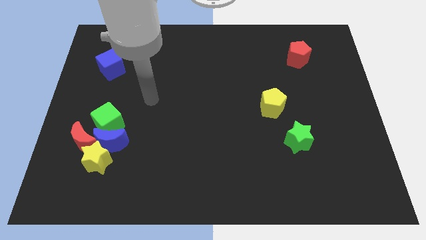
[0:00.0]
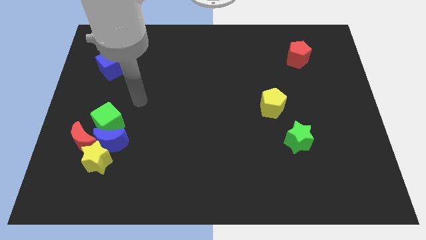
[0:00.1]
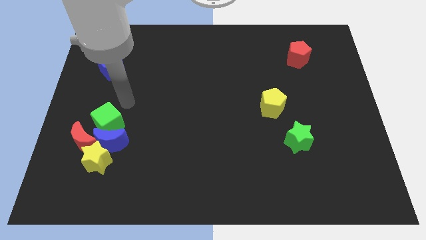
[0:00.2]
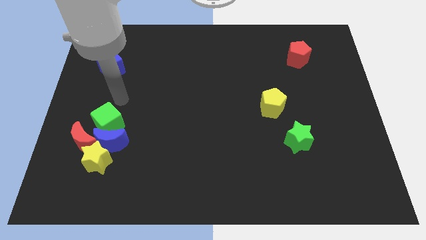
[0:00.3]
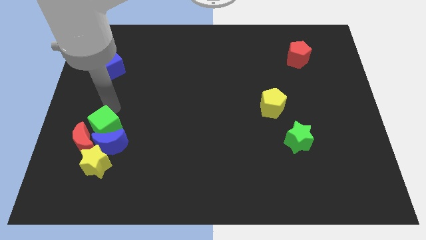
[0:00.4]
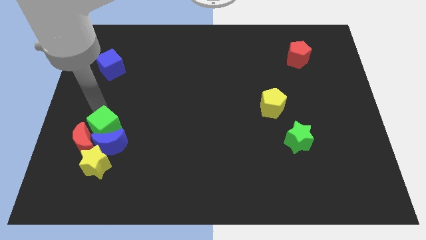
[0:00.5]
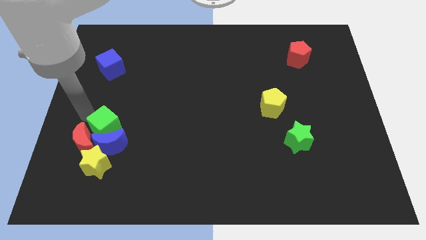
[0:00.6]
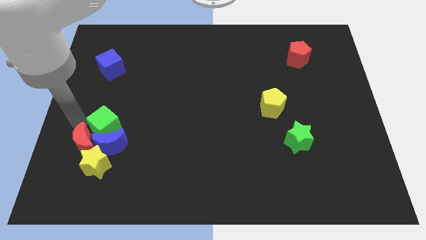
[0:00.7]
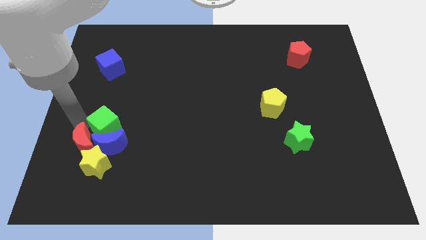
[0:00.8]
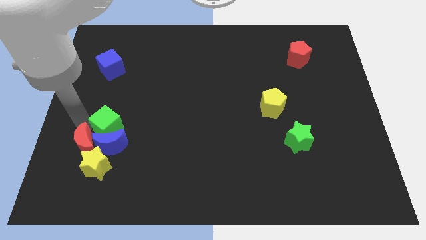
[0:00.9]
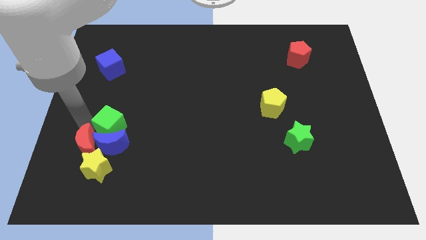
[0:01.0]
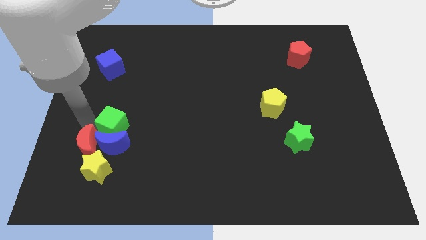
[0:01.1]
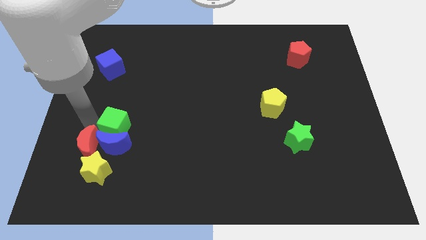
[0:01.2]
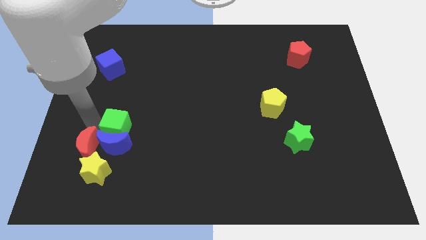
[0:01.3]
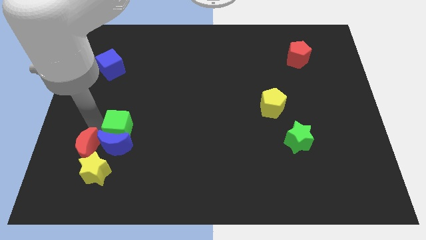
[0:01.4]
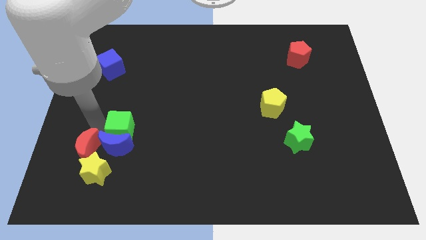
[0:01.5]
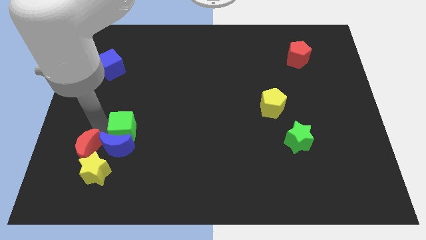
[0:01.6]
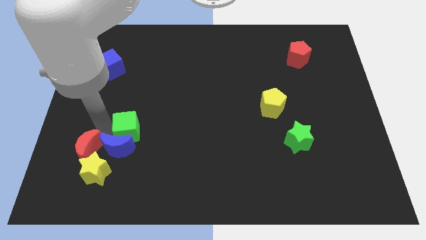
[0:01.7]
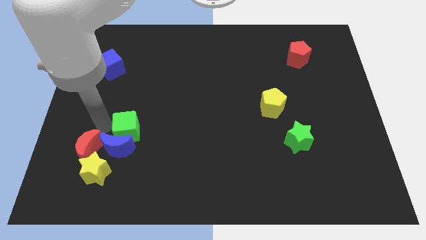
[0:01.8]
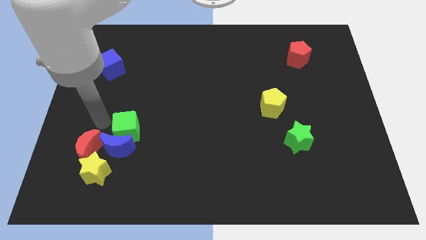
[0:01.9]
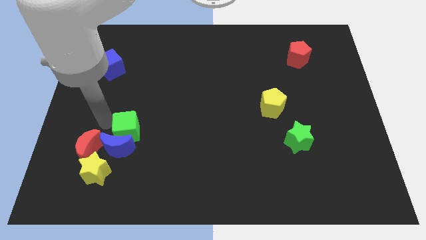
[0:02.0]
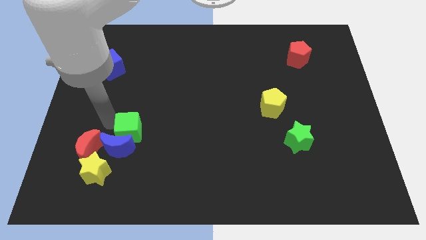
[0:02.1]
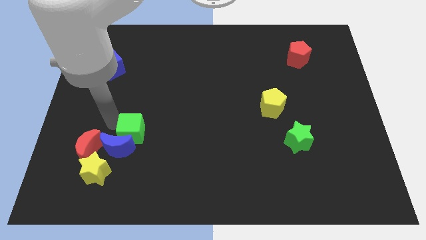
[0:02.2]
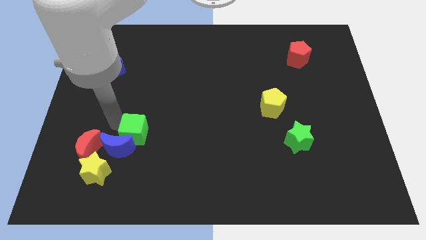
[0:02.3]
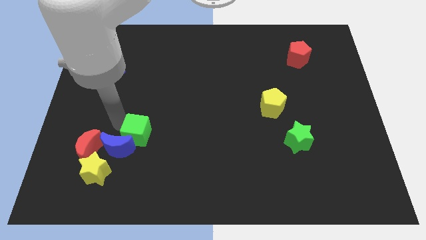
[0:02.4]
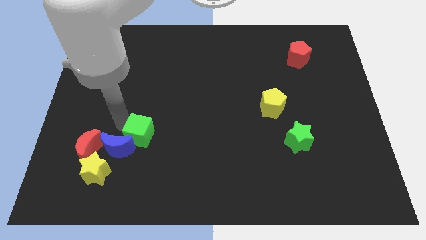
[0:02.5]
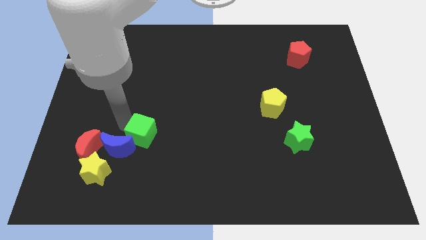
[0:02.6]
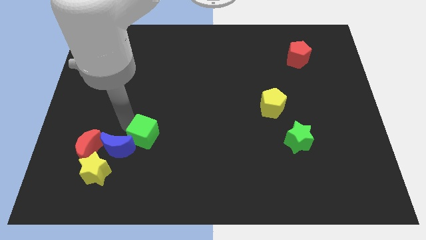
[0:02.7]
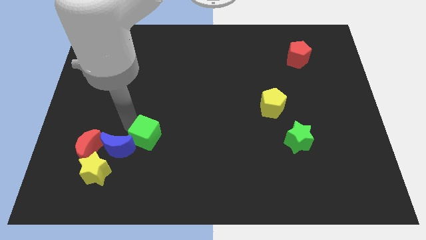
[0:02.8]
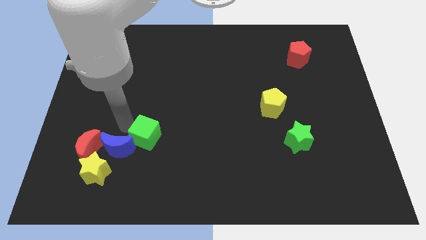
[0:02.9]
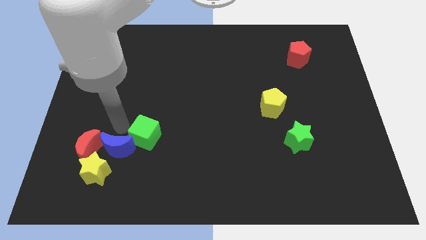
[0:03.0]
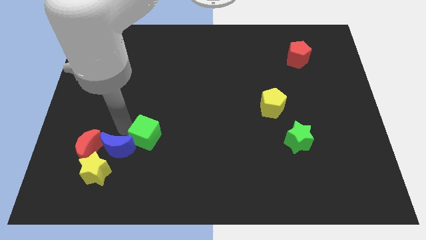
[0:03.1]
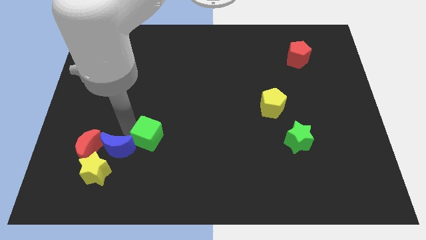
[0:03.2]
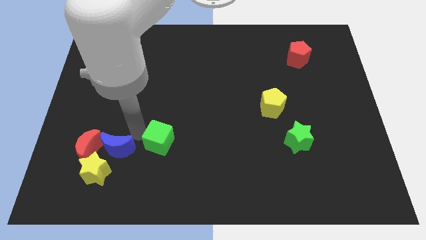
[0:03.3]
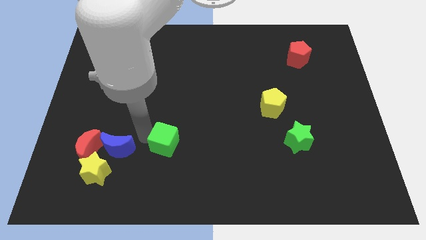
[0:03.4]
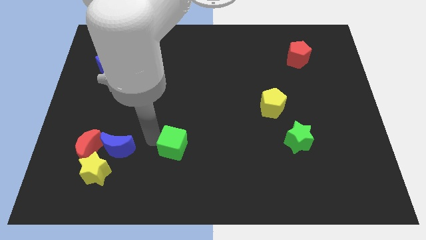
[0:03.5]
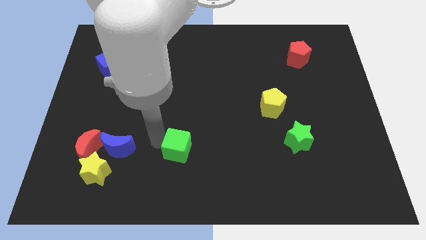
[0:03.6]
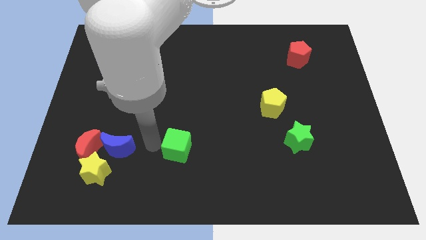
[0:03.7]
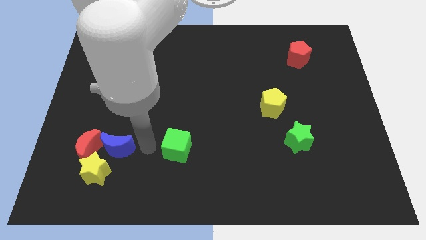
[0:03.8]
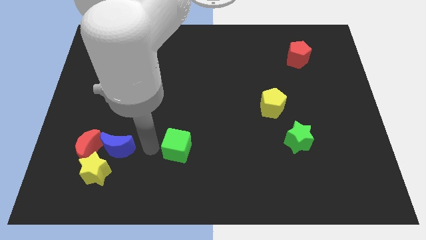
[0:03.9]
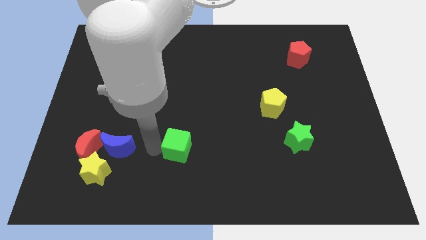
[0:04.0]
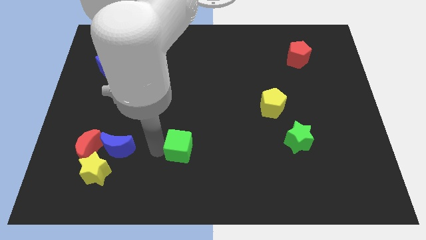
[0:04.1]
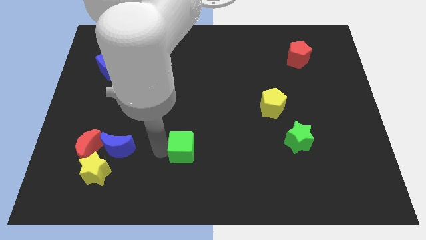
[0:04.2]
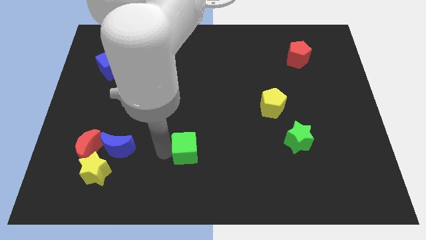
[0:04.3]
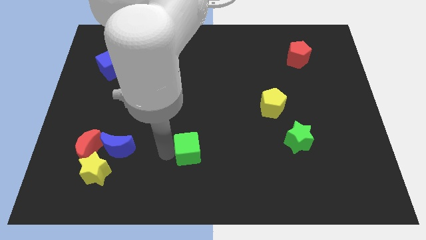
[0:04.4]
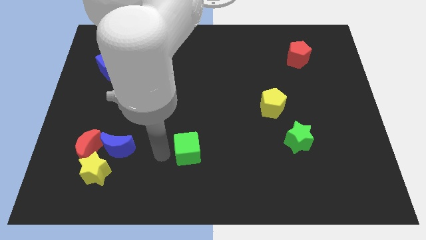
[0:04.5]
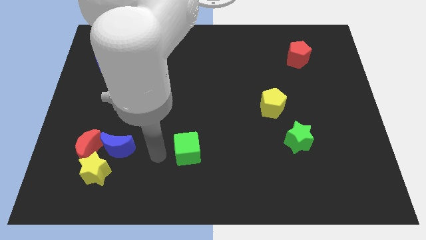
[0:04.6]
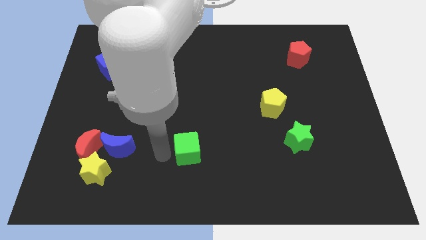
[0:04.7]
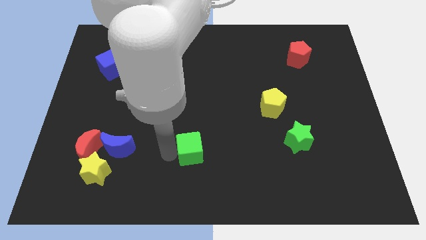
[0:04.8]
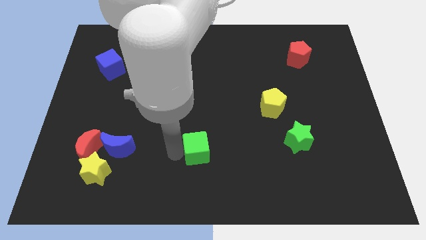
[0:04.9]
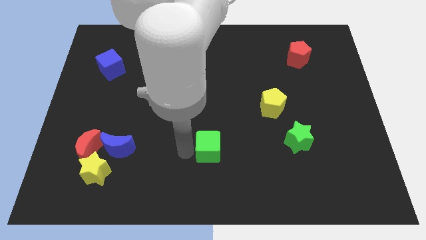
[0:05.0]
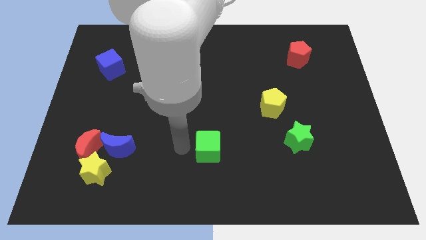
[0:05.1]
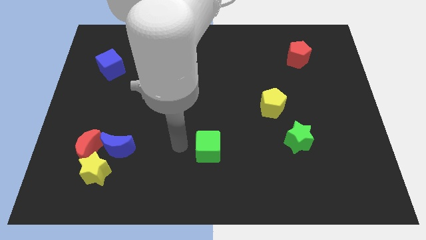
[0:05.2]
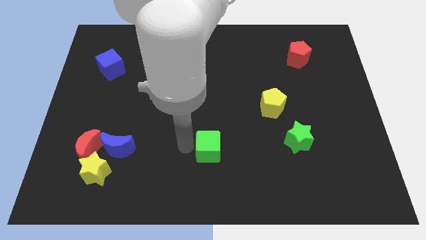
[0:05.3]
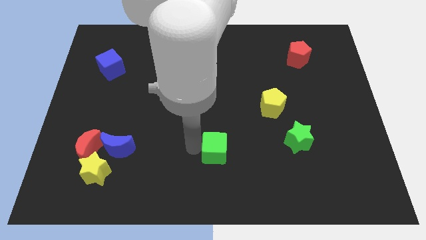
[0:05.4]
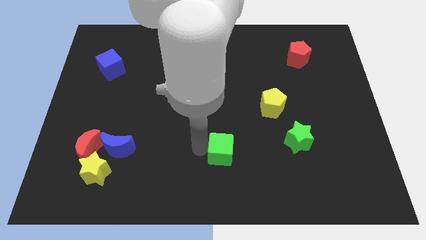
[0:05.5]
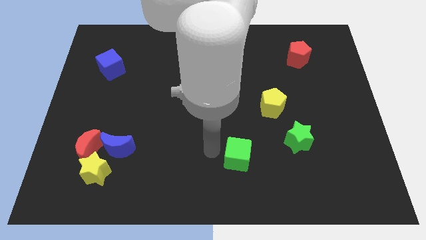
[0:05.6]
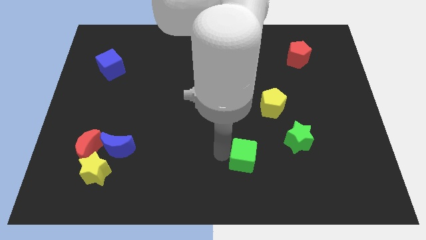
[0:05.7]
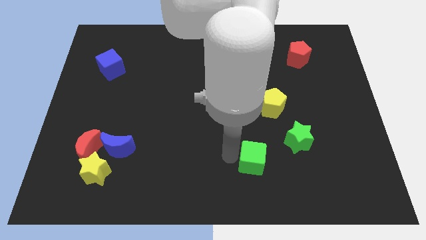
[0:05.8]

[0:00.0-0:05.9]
put the green cube diagonally down and to the left of the green star
